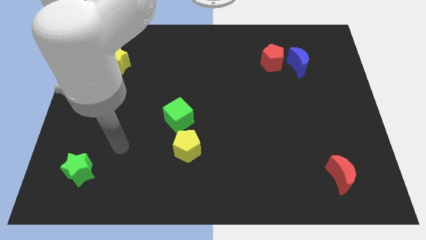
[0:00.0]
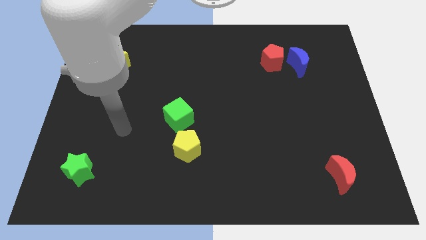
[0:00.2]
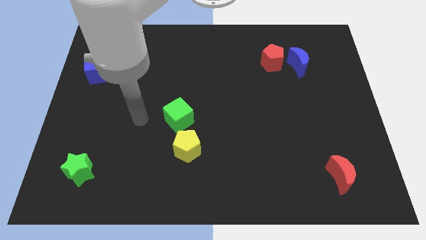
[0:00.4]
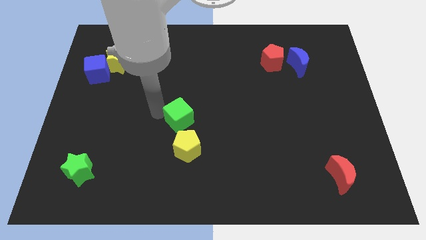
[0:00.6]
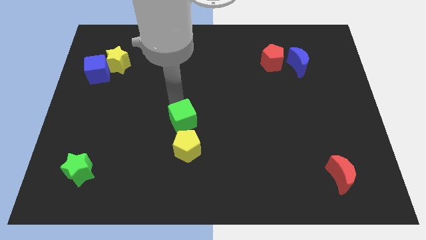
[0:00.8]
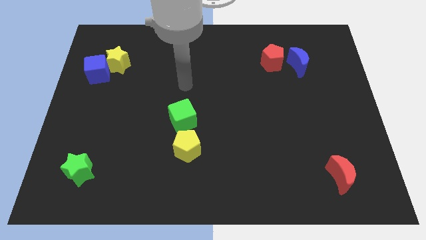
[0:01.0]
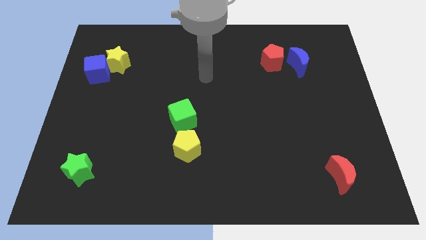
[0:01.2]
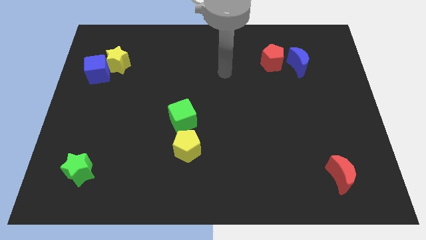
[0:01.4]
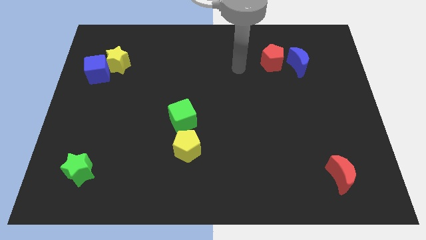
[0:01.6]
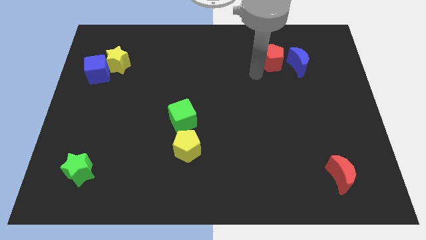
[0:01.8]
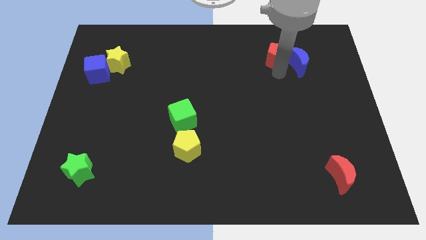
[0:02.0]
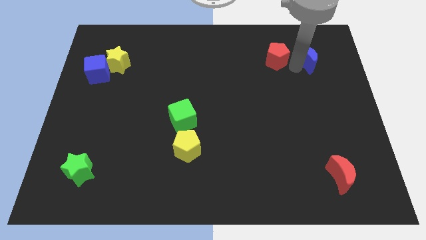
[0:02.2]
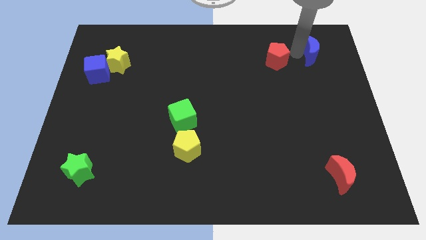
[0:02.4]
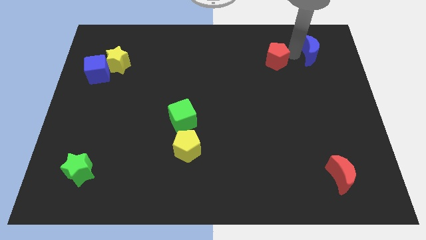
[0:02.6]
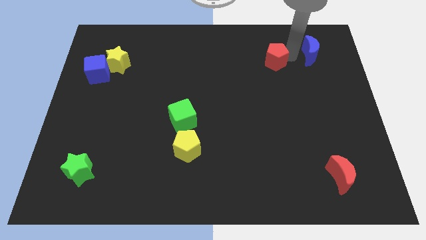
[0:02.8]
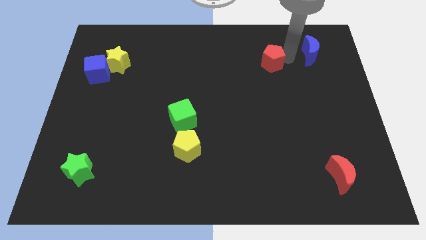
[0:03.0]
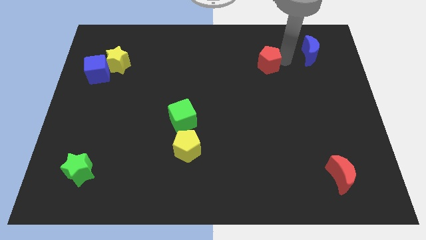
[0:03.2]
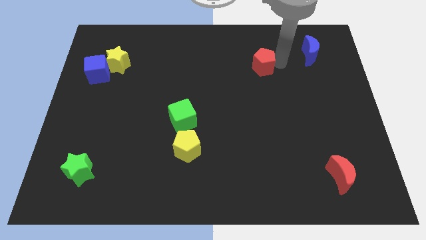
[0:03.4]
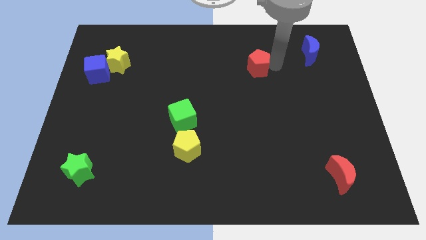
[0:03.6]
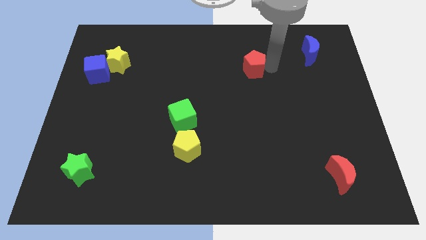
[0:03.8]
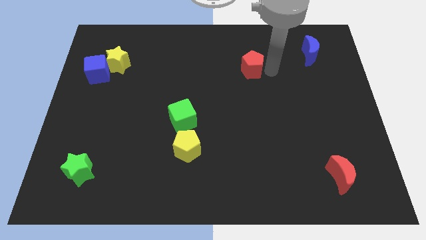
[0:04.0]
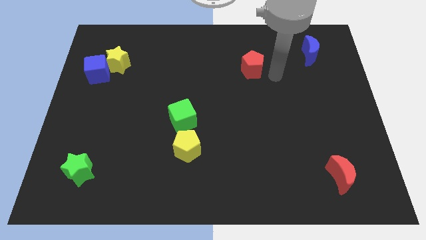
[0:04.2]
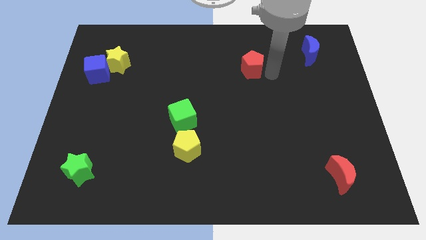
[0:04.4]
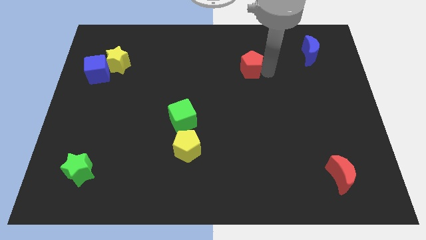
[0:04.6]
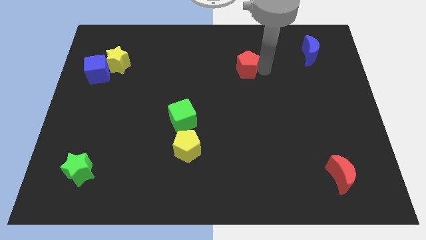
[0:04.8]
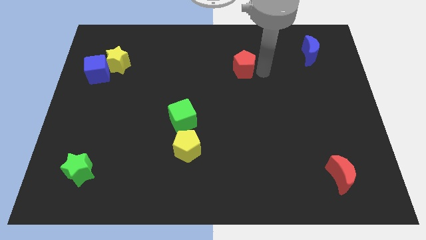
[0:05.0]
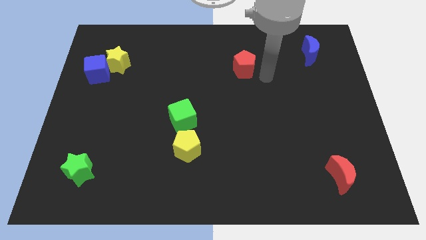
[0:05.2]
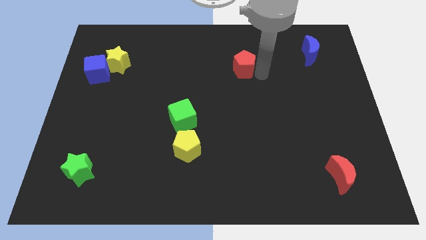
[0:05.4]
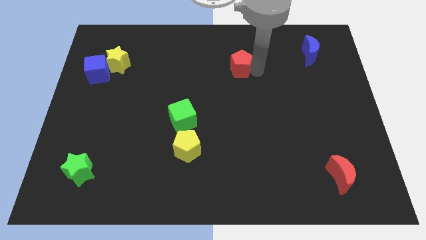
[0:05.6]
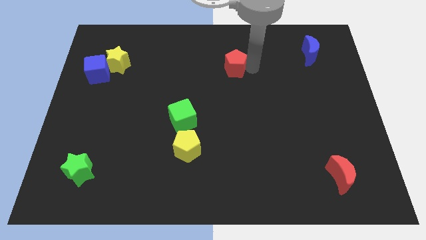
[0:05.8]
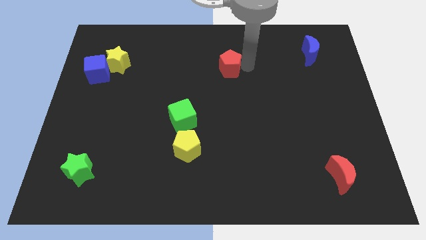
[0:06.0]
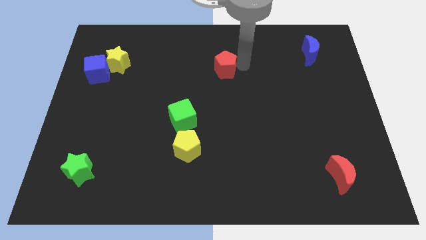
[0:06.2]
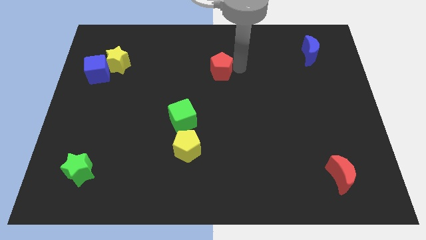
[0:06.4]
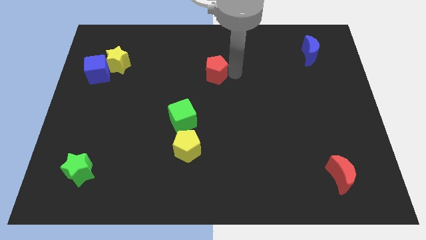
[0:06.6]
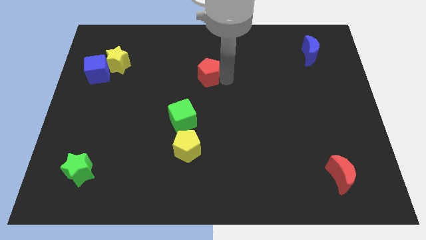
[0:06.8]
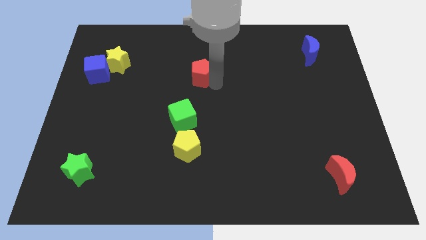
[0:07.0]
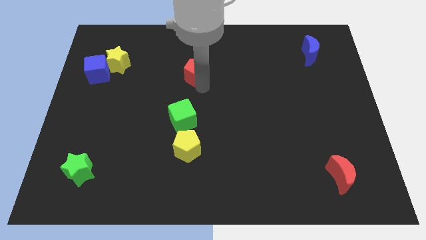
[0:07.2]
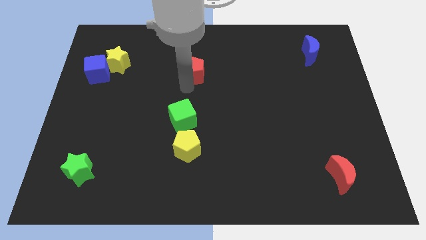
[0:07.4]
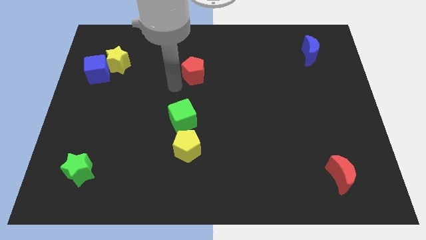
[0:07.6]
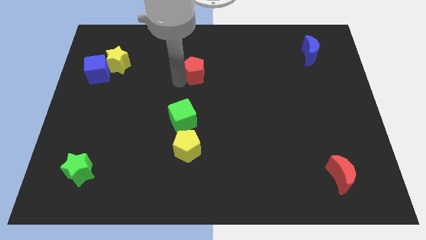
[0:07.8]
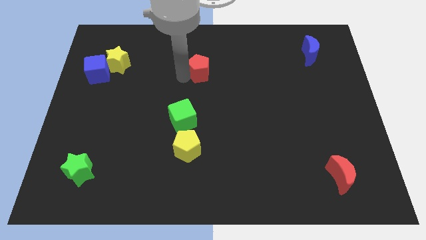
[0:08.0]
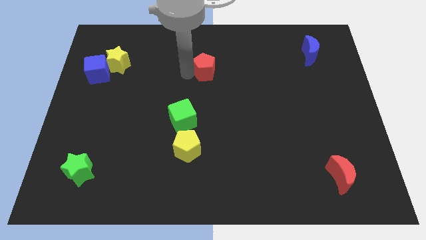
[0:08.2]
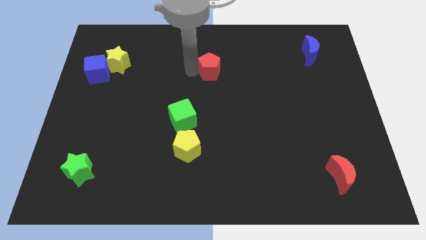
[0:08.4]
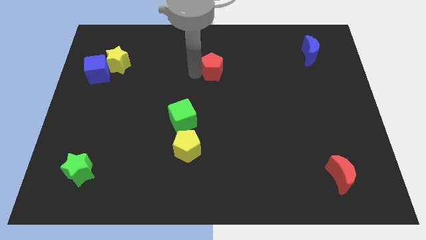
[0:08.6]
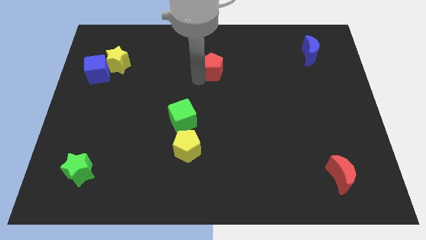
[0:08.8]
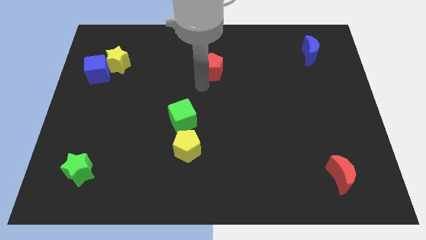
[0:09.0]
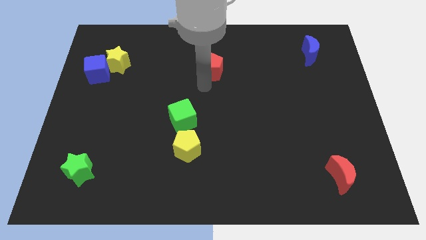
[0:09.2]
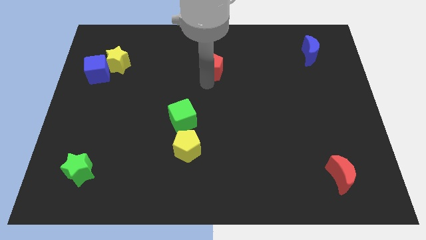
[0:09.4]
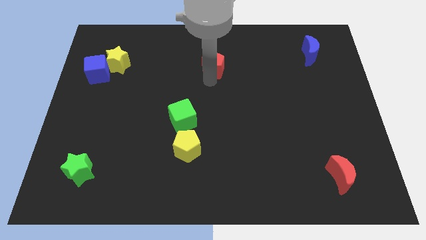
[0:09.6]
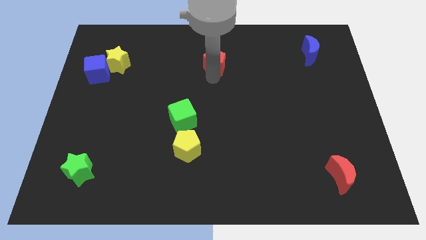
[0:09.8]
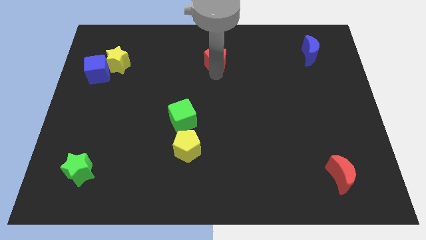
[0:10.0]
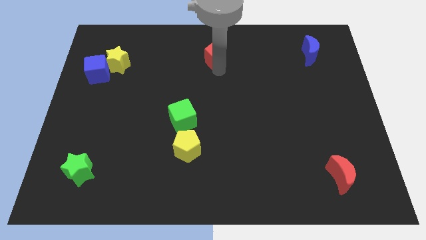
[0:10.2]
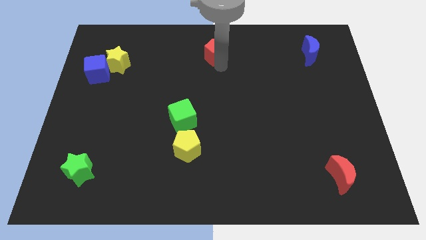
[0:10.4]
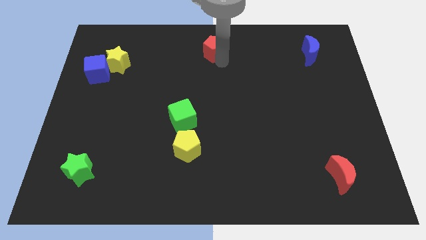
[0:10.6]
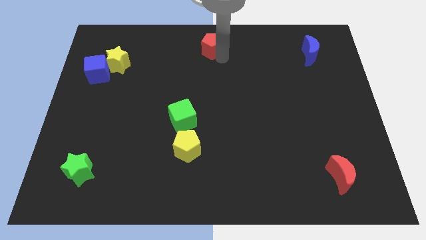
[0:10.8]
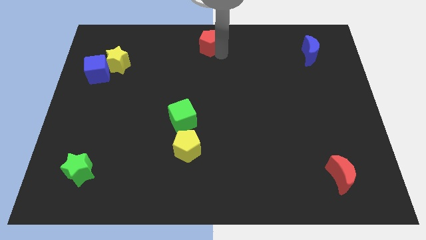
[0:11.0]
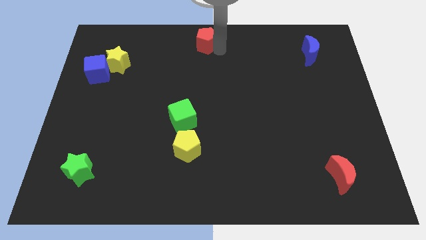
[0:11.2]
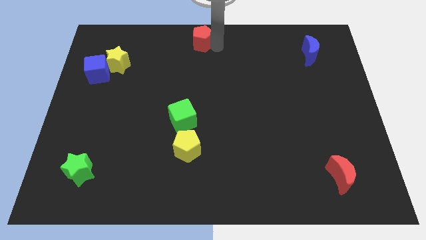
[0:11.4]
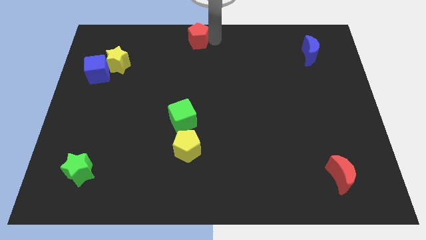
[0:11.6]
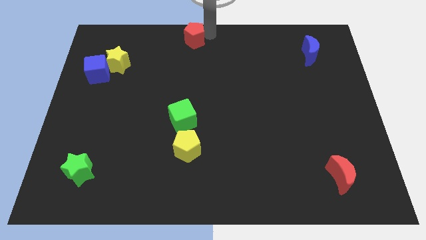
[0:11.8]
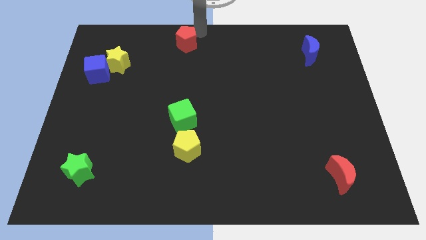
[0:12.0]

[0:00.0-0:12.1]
slide the red pentagon left

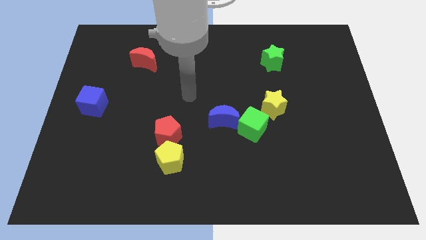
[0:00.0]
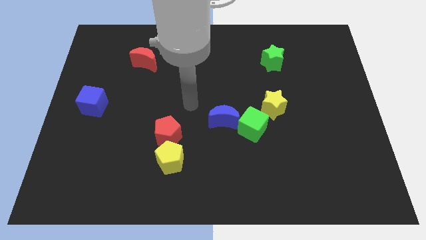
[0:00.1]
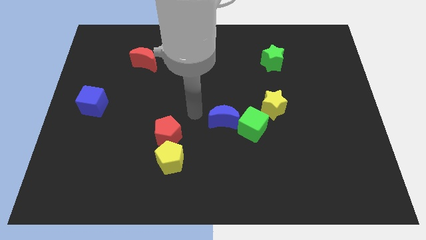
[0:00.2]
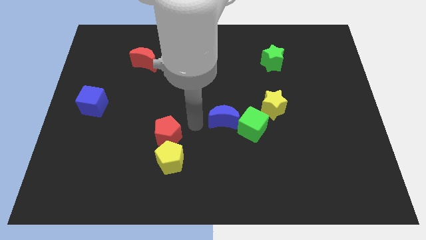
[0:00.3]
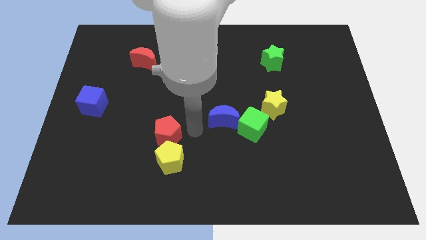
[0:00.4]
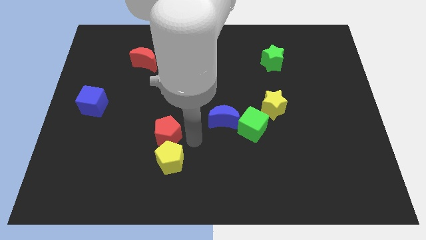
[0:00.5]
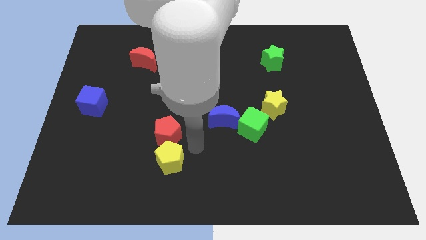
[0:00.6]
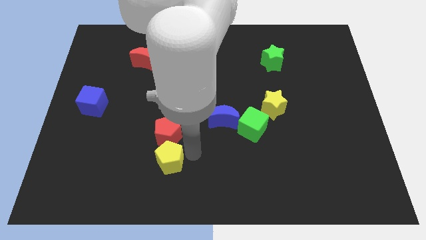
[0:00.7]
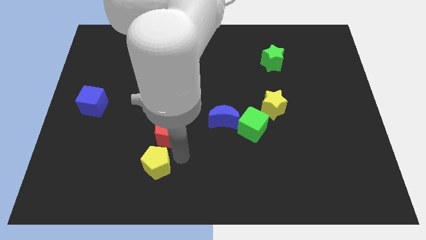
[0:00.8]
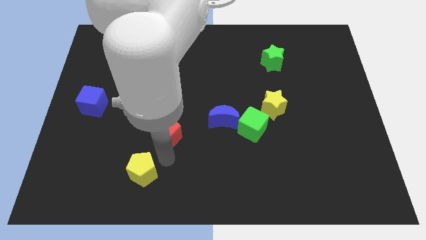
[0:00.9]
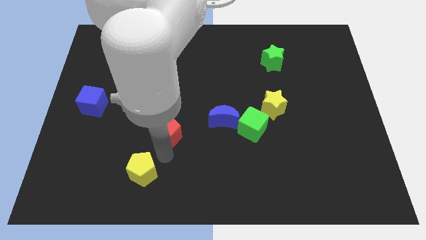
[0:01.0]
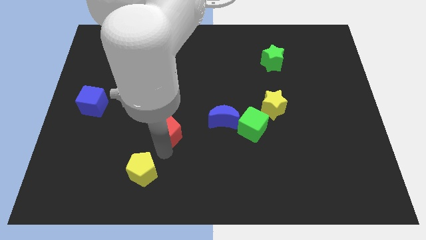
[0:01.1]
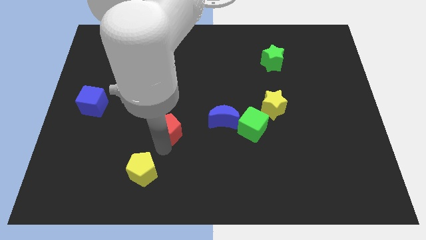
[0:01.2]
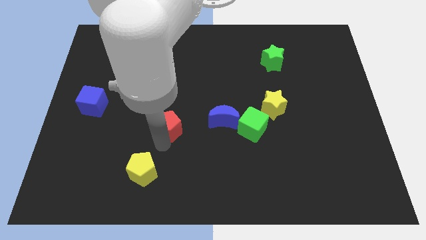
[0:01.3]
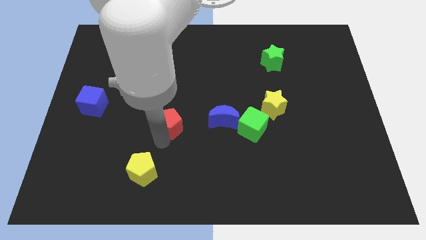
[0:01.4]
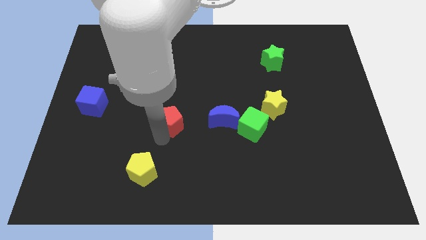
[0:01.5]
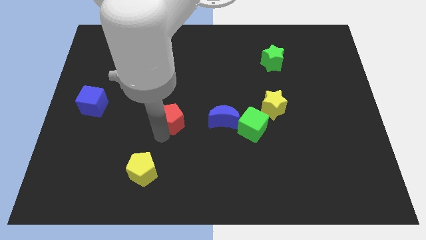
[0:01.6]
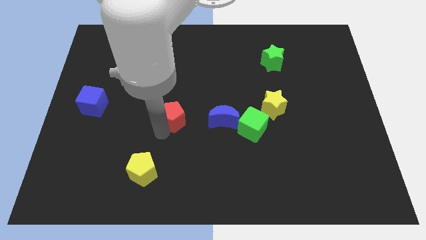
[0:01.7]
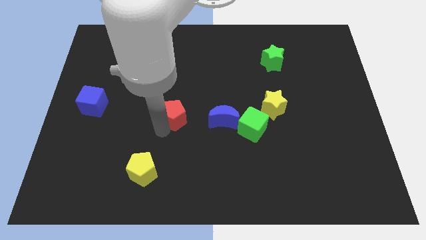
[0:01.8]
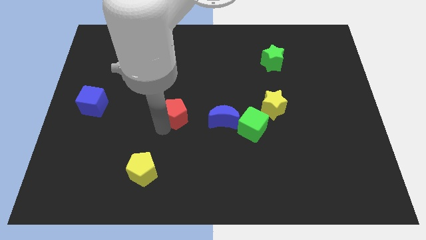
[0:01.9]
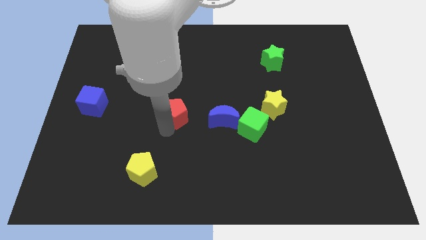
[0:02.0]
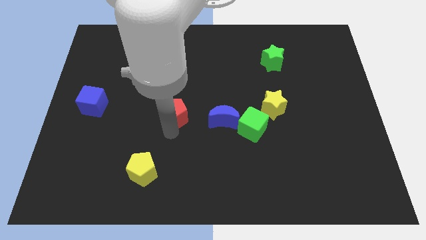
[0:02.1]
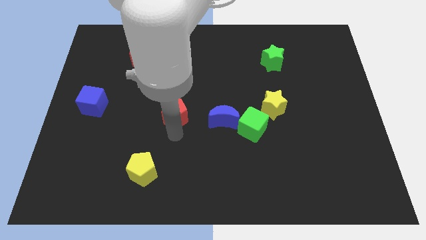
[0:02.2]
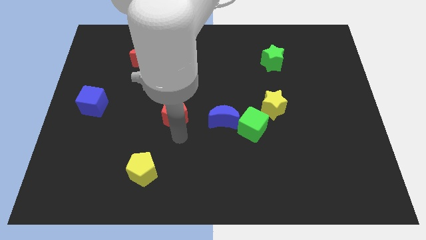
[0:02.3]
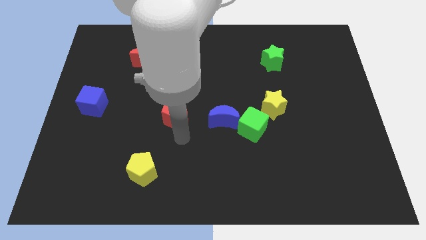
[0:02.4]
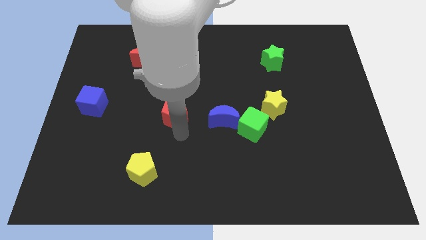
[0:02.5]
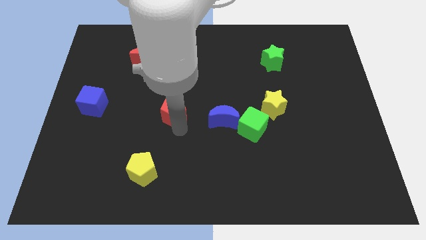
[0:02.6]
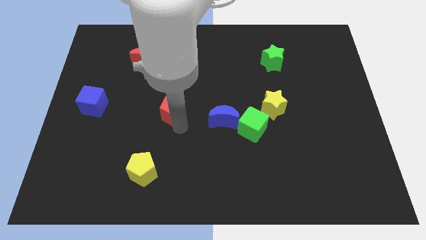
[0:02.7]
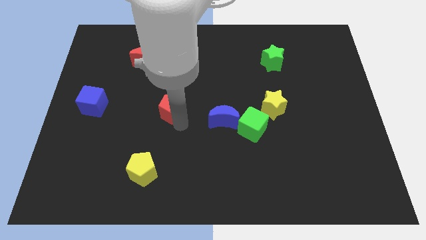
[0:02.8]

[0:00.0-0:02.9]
slightly push the red pentagon up
